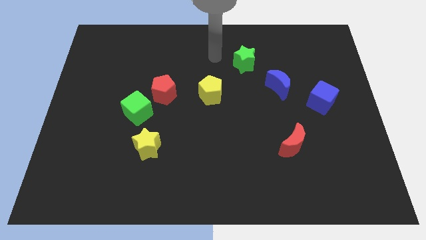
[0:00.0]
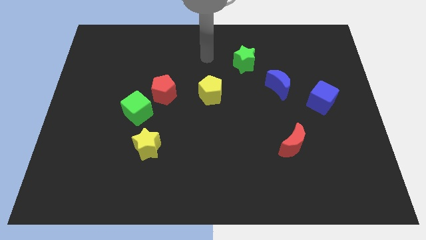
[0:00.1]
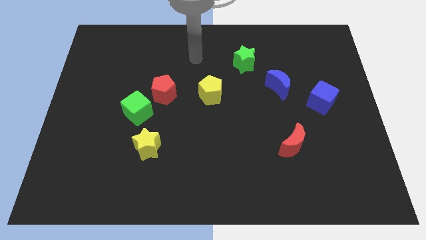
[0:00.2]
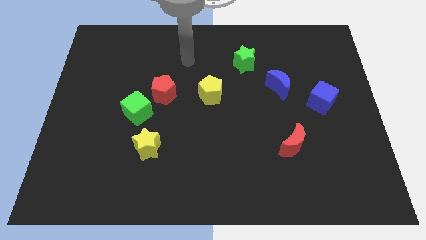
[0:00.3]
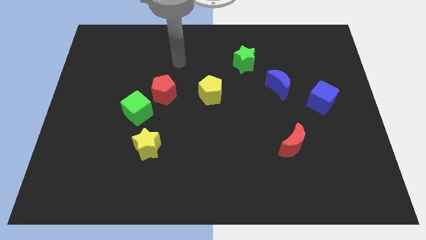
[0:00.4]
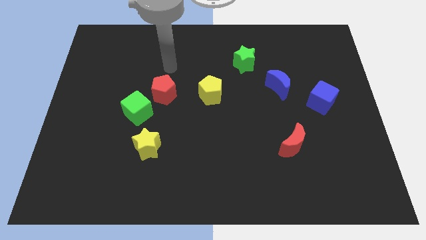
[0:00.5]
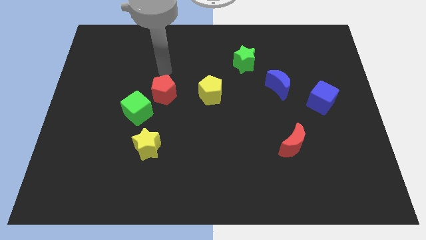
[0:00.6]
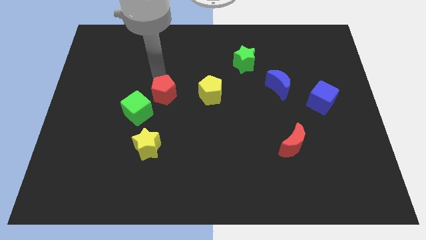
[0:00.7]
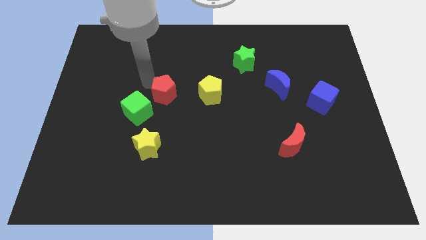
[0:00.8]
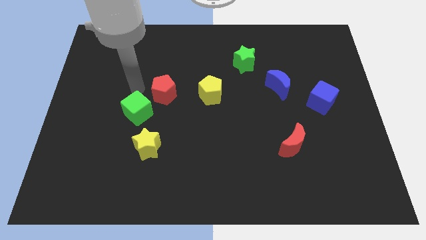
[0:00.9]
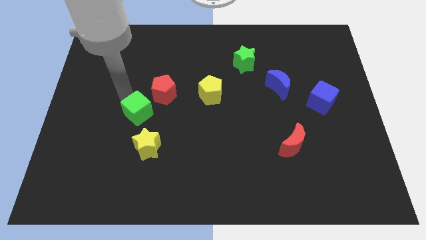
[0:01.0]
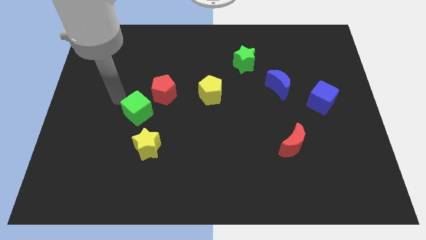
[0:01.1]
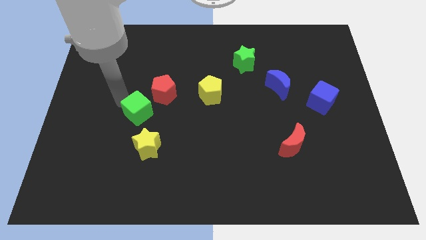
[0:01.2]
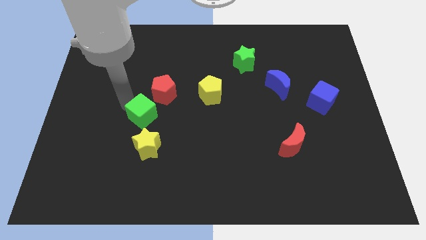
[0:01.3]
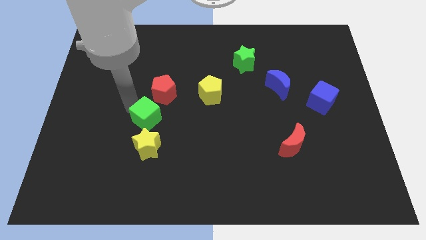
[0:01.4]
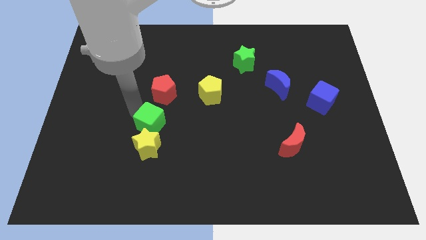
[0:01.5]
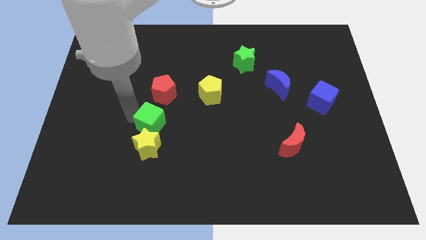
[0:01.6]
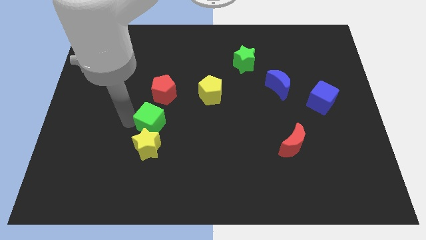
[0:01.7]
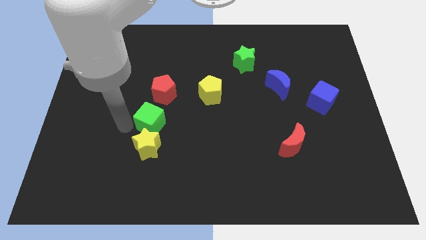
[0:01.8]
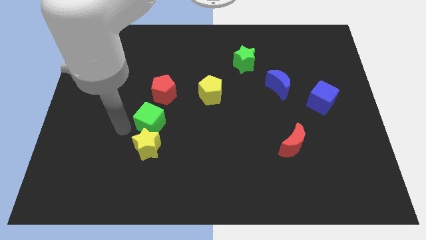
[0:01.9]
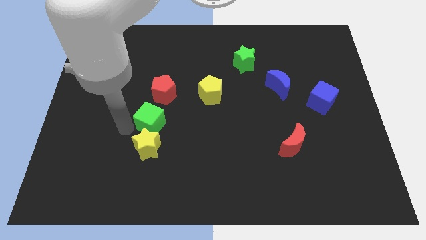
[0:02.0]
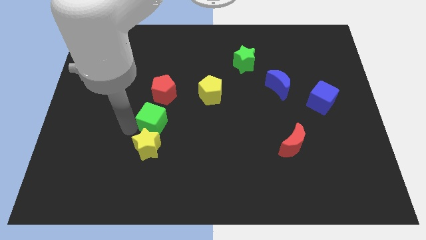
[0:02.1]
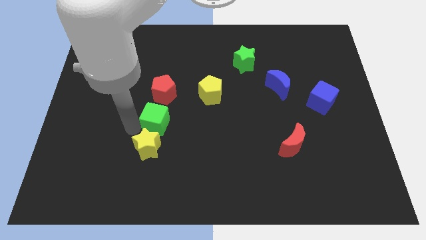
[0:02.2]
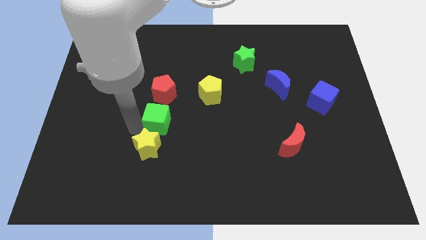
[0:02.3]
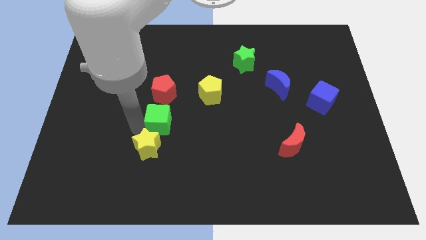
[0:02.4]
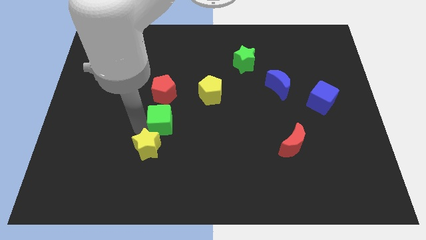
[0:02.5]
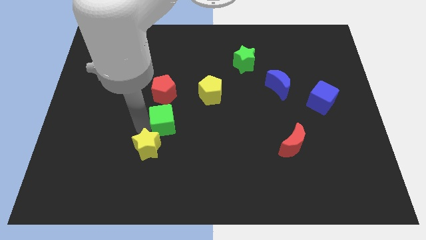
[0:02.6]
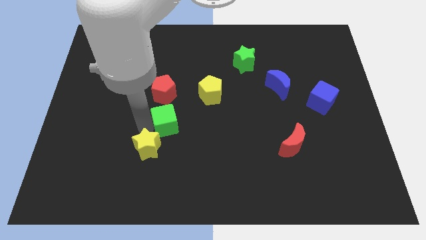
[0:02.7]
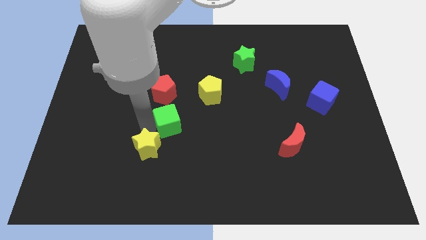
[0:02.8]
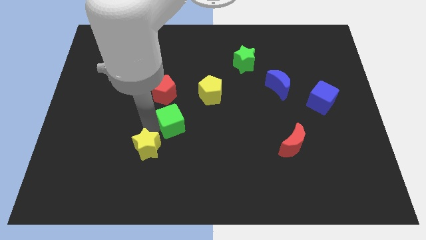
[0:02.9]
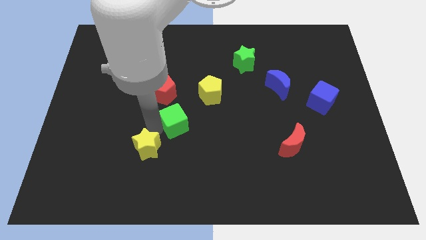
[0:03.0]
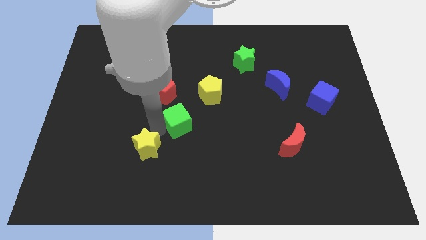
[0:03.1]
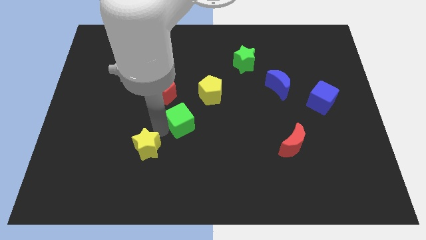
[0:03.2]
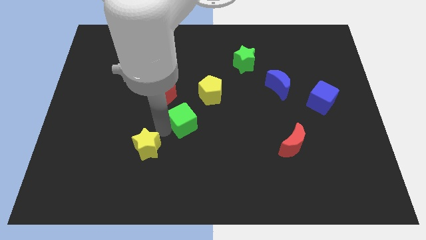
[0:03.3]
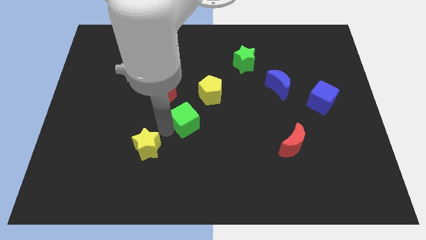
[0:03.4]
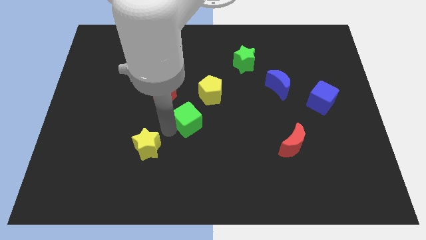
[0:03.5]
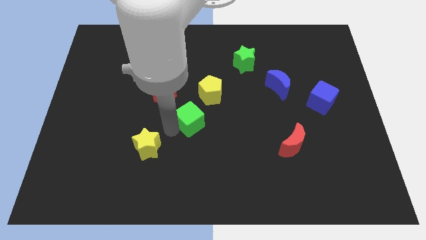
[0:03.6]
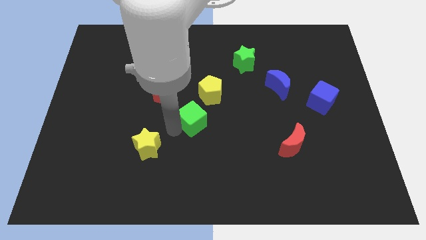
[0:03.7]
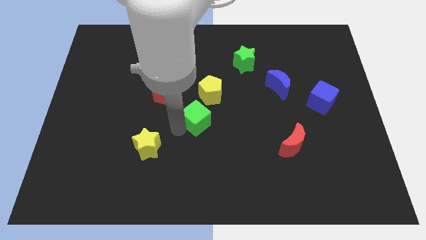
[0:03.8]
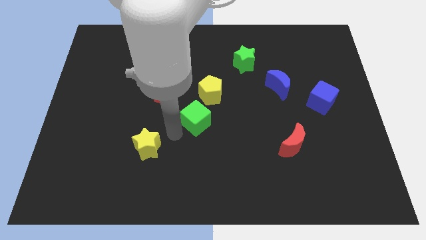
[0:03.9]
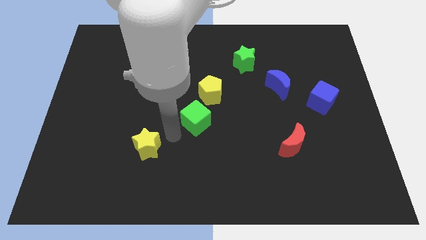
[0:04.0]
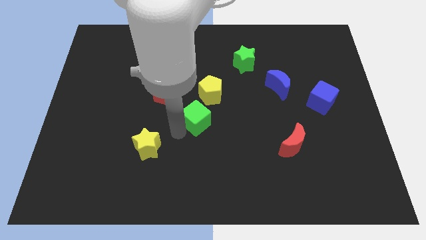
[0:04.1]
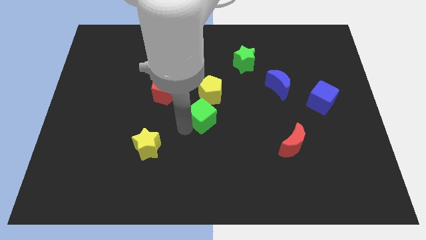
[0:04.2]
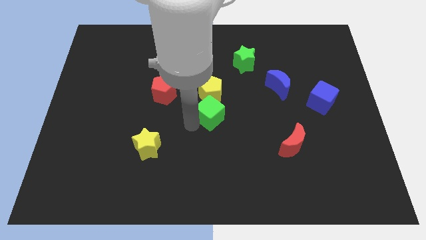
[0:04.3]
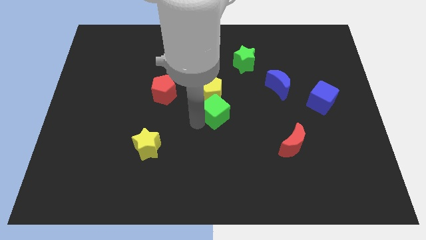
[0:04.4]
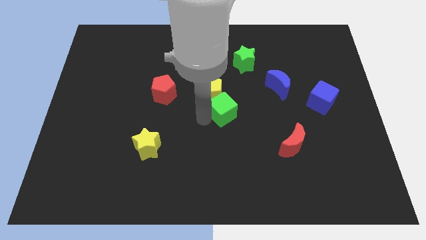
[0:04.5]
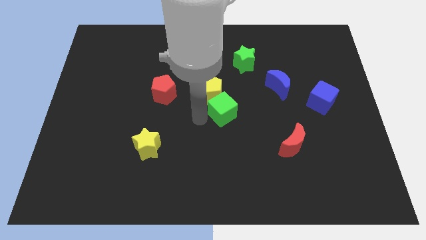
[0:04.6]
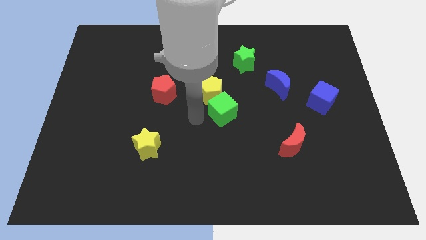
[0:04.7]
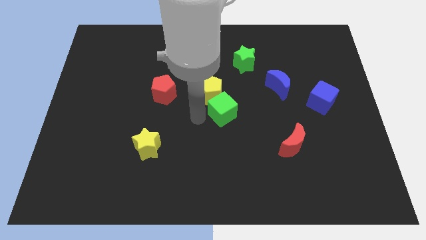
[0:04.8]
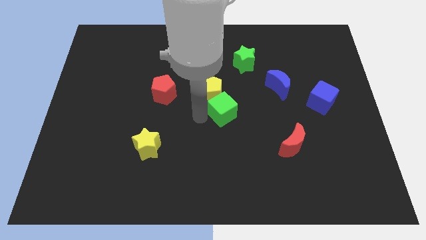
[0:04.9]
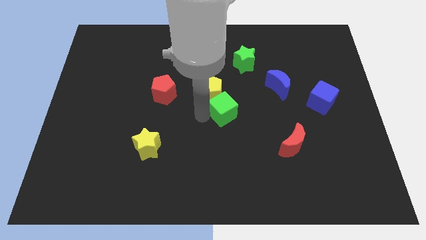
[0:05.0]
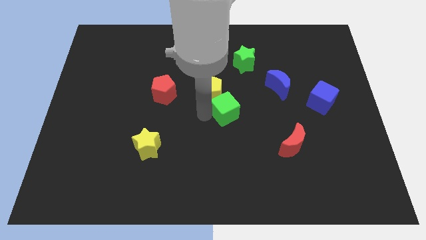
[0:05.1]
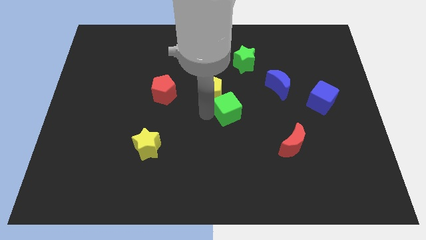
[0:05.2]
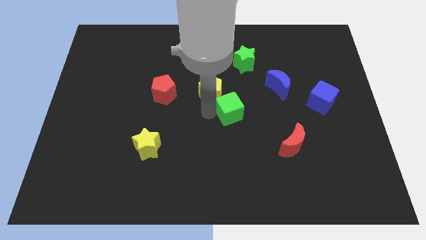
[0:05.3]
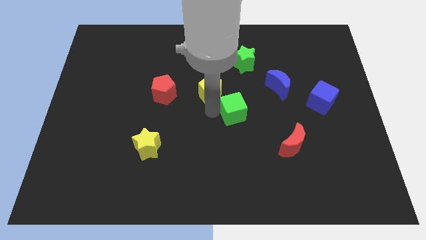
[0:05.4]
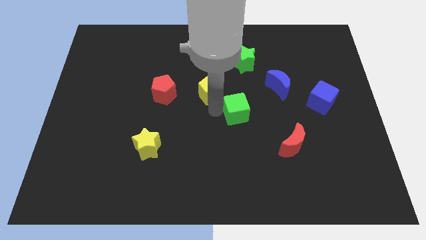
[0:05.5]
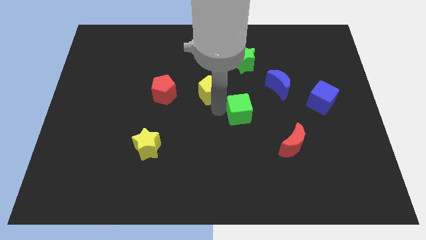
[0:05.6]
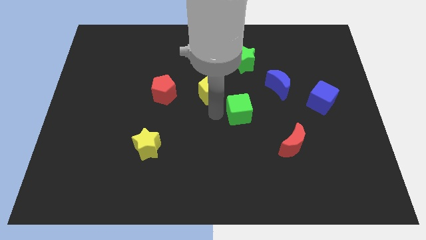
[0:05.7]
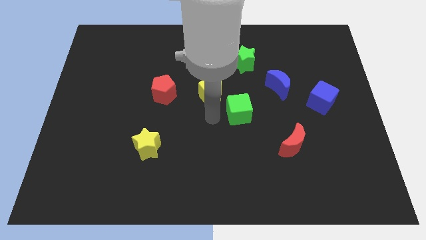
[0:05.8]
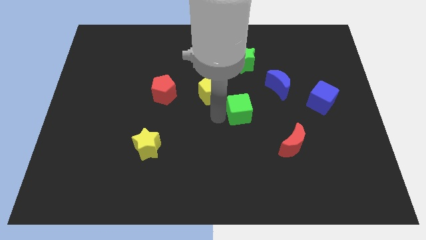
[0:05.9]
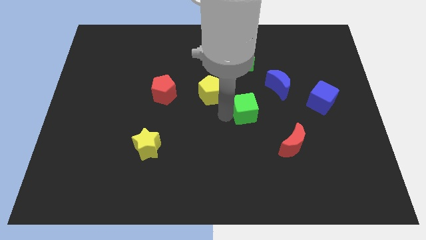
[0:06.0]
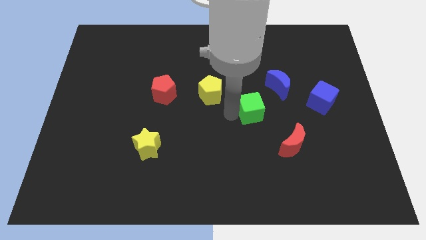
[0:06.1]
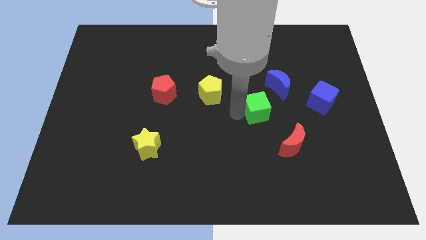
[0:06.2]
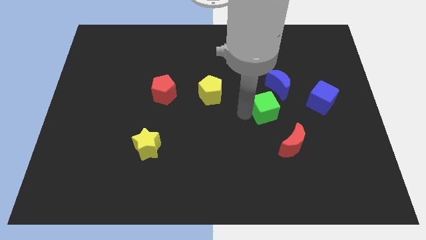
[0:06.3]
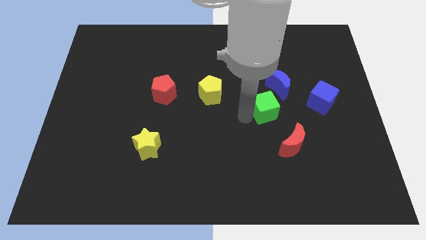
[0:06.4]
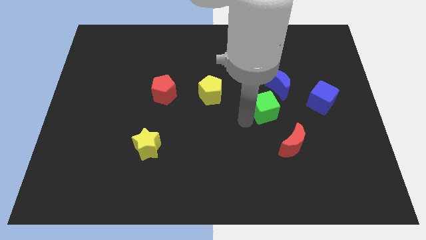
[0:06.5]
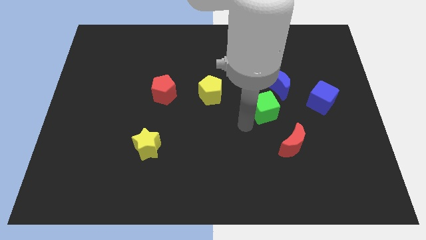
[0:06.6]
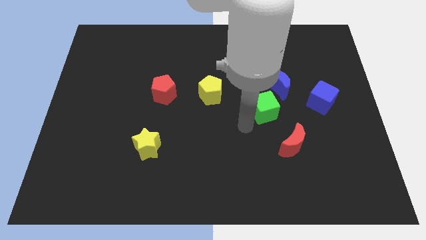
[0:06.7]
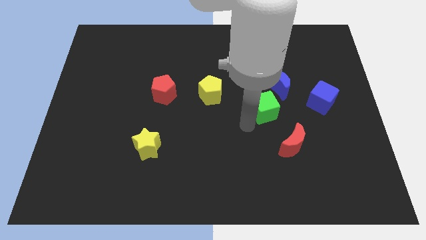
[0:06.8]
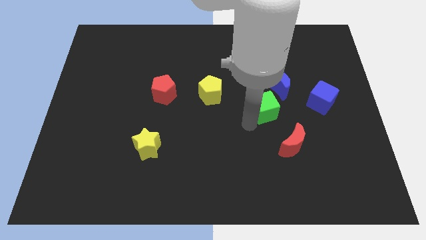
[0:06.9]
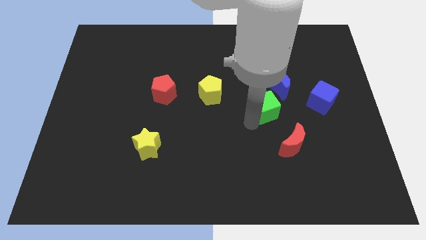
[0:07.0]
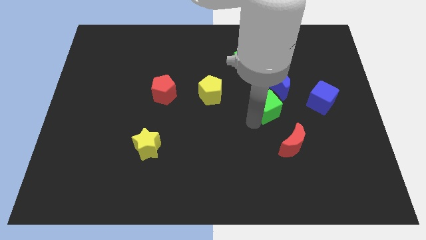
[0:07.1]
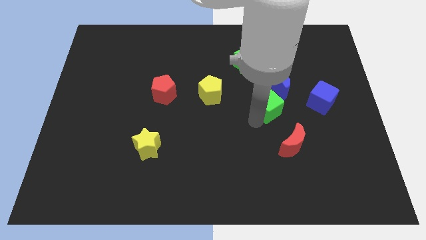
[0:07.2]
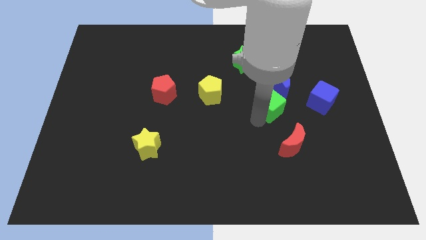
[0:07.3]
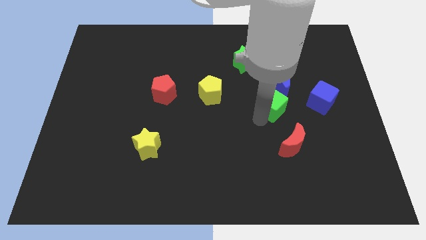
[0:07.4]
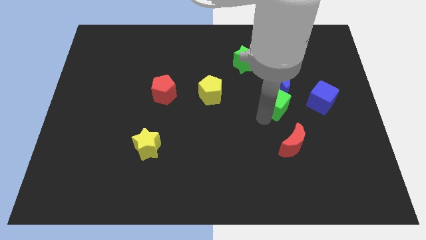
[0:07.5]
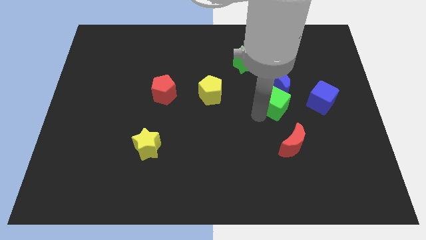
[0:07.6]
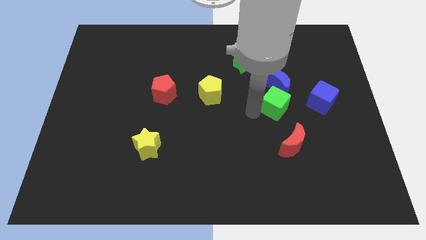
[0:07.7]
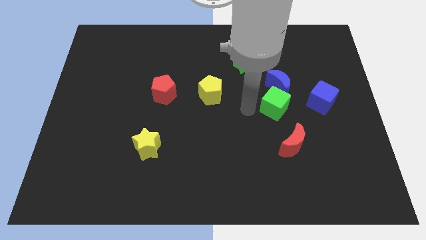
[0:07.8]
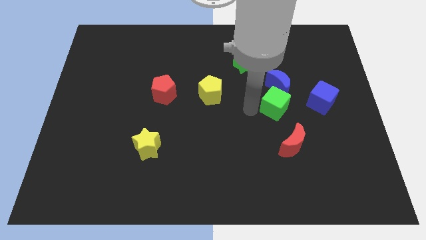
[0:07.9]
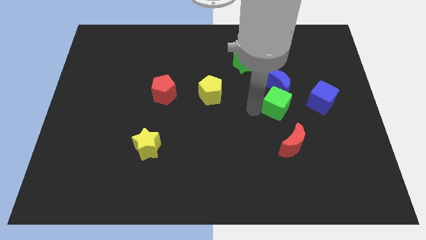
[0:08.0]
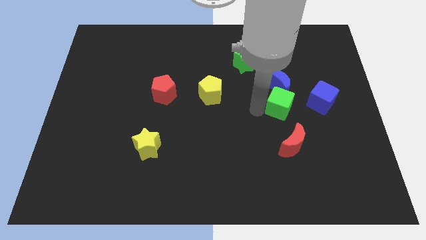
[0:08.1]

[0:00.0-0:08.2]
push the green cube to the bottom right of the blue moon
